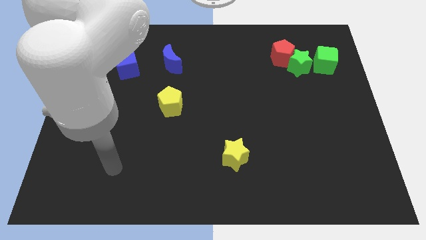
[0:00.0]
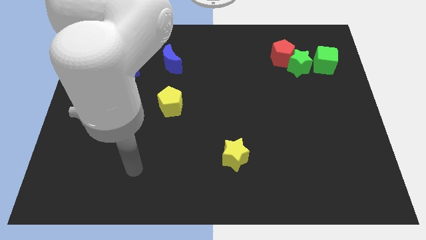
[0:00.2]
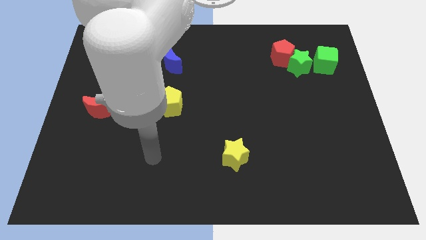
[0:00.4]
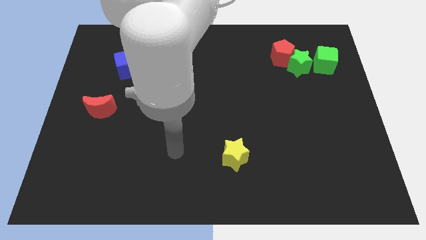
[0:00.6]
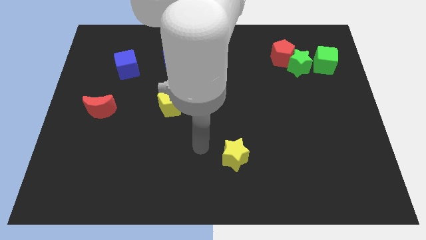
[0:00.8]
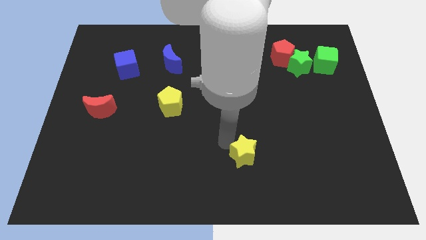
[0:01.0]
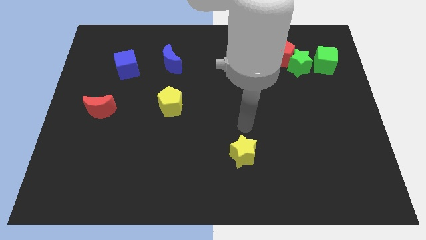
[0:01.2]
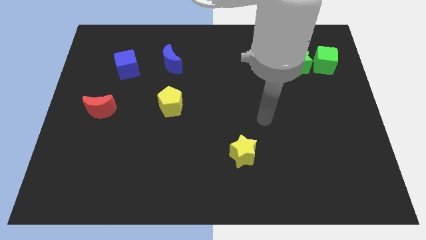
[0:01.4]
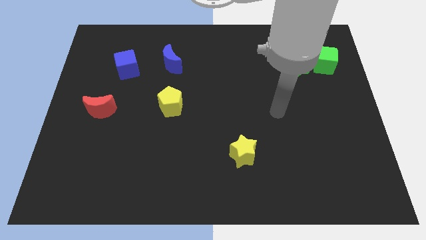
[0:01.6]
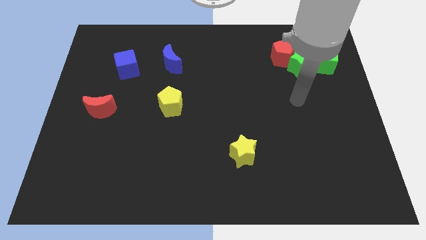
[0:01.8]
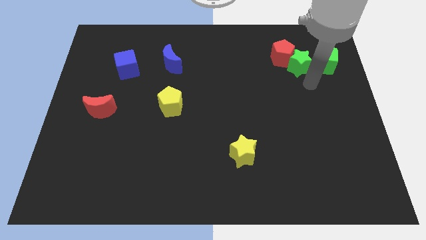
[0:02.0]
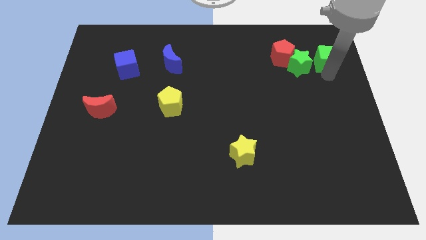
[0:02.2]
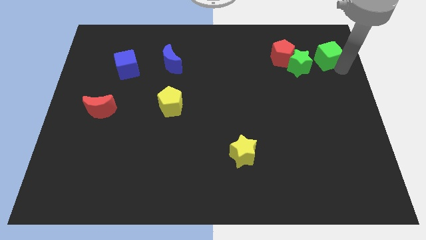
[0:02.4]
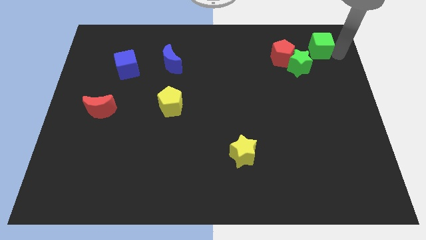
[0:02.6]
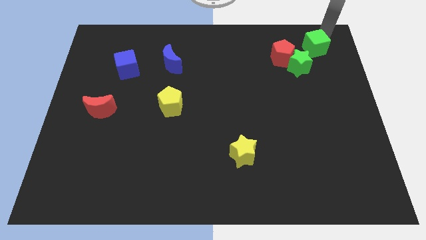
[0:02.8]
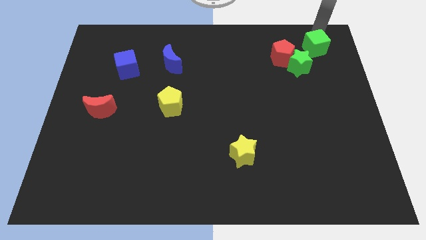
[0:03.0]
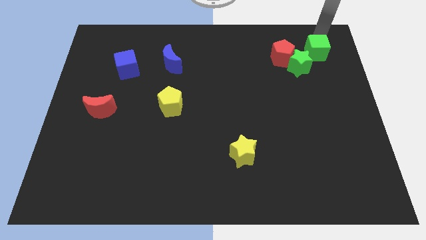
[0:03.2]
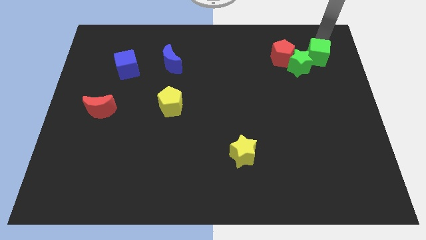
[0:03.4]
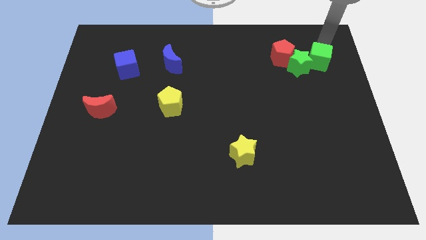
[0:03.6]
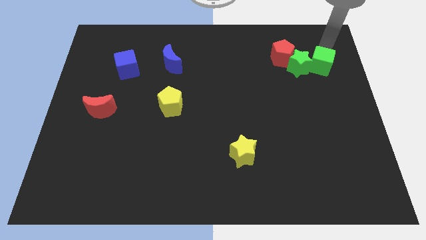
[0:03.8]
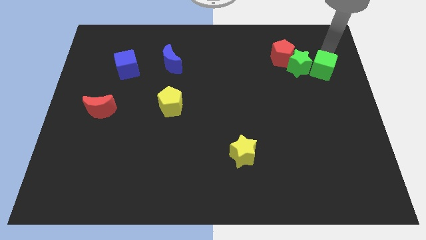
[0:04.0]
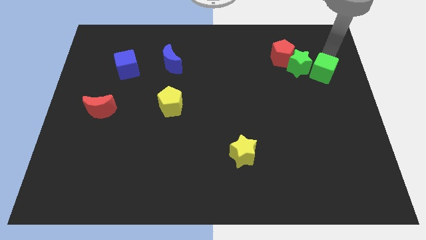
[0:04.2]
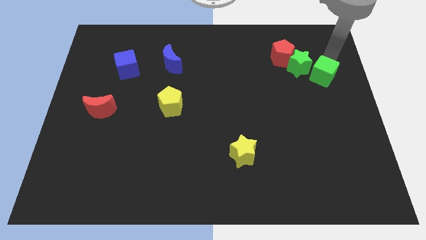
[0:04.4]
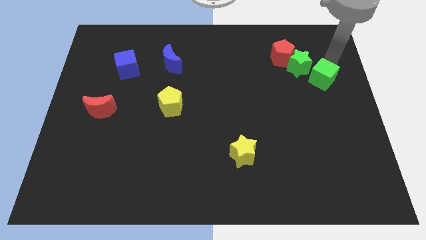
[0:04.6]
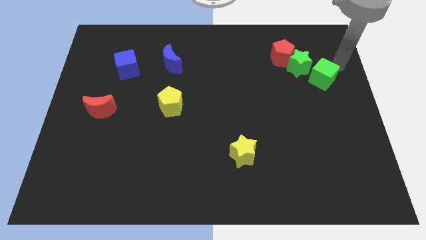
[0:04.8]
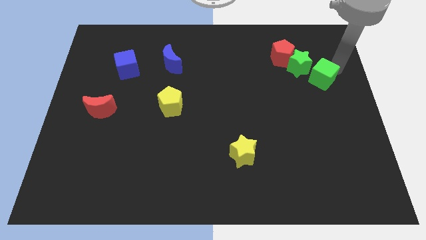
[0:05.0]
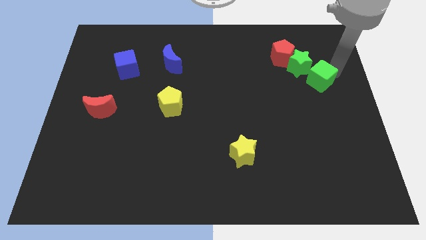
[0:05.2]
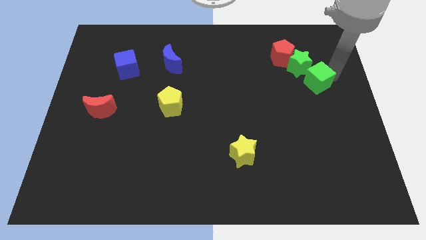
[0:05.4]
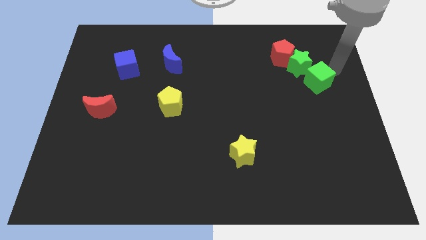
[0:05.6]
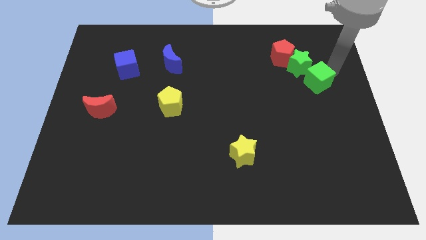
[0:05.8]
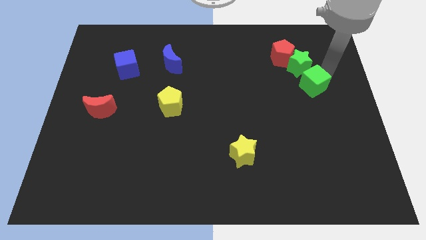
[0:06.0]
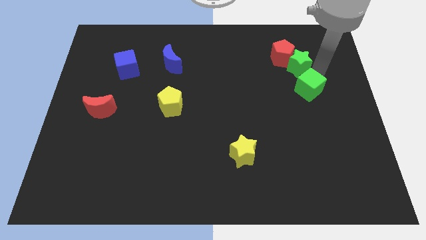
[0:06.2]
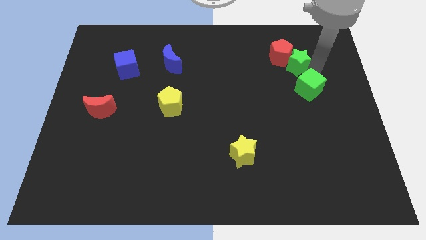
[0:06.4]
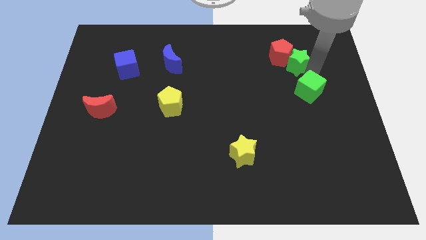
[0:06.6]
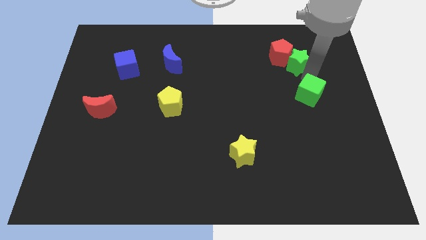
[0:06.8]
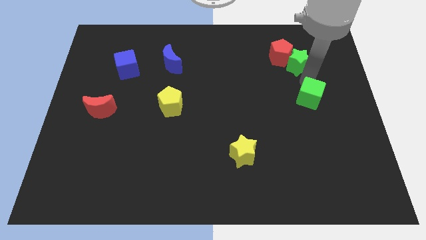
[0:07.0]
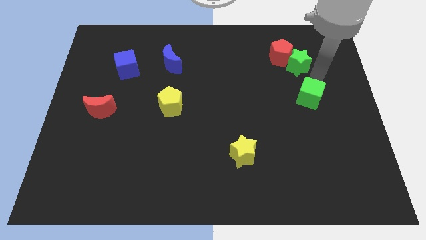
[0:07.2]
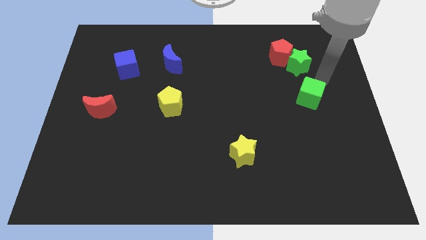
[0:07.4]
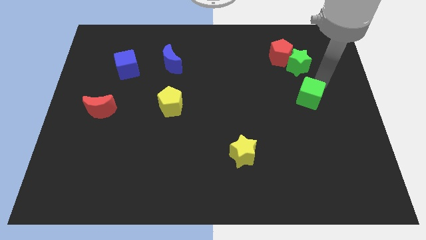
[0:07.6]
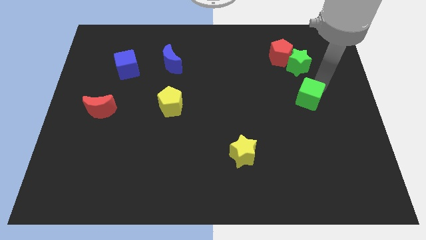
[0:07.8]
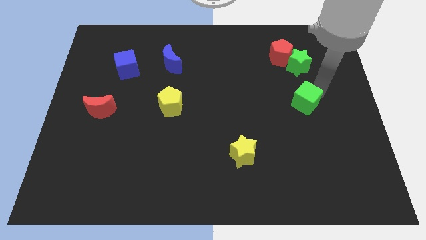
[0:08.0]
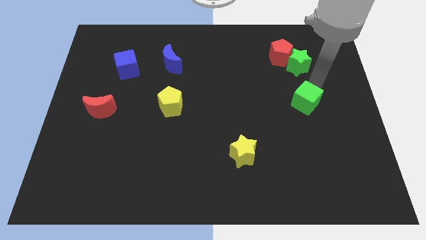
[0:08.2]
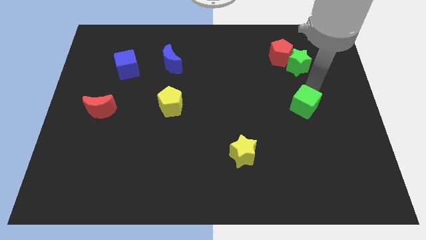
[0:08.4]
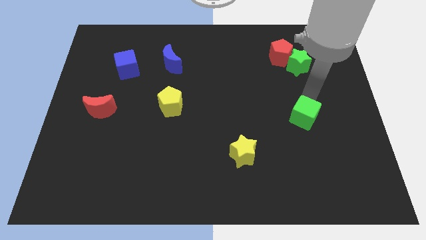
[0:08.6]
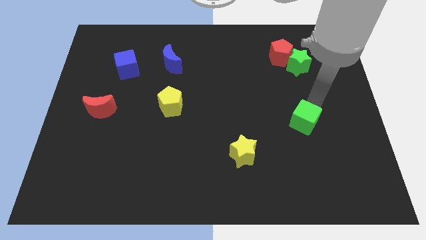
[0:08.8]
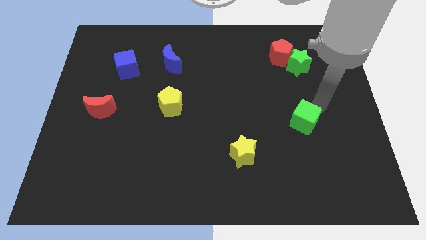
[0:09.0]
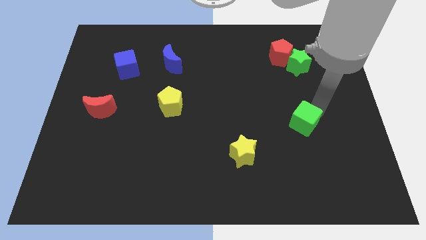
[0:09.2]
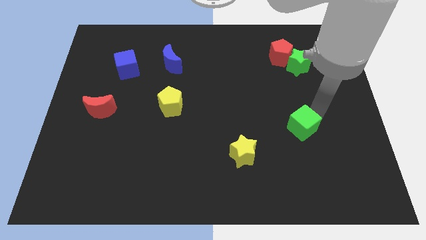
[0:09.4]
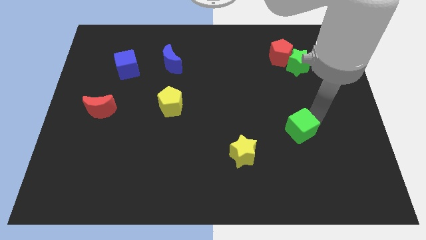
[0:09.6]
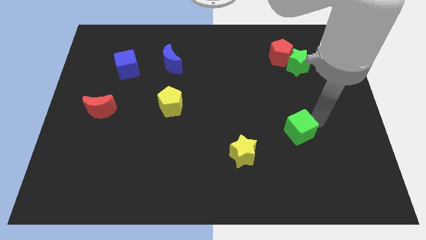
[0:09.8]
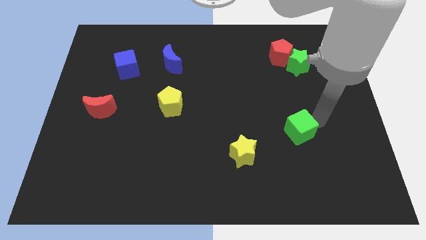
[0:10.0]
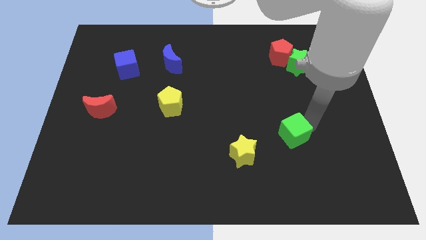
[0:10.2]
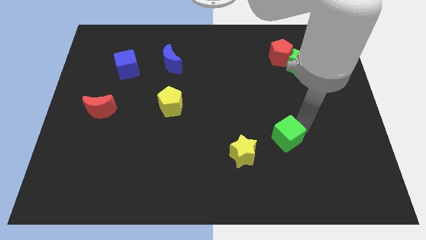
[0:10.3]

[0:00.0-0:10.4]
slide the green cube to the right of the yellow star

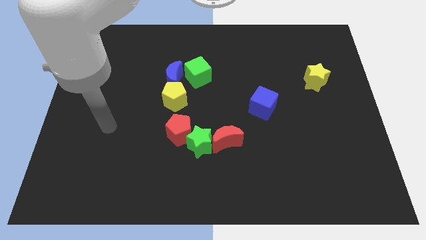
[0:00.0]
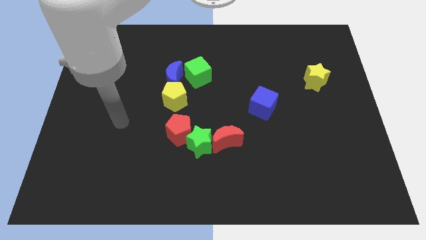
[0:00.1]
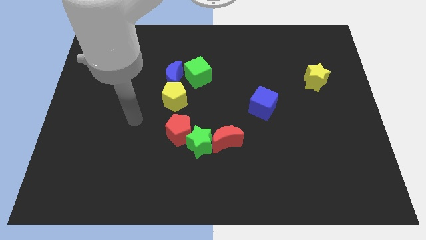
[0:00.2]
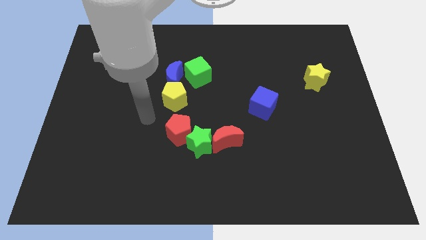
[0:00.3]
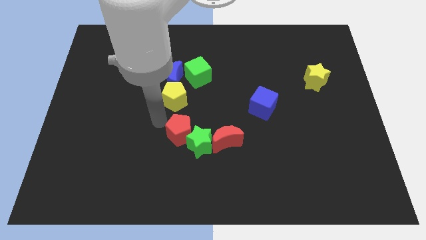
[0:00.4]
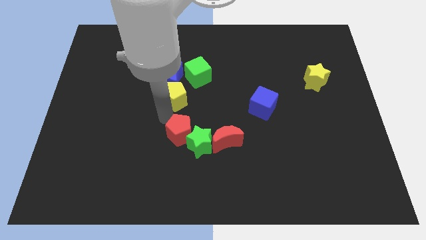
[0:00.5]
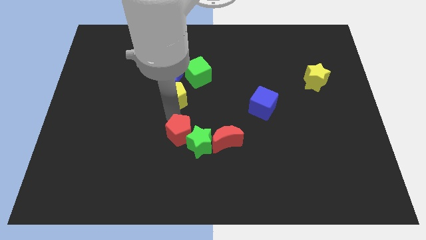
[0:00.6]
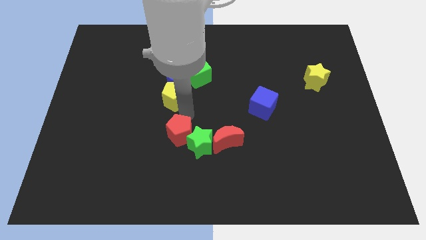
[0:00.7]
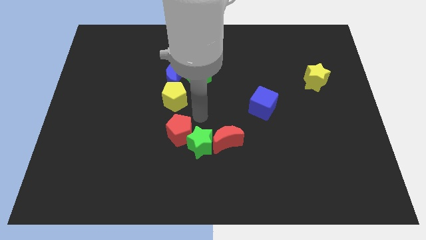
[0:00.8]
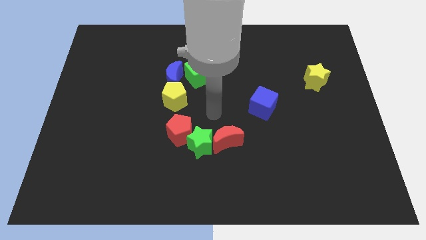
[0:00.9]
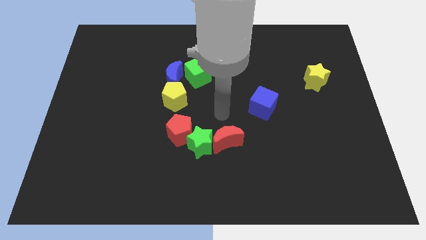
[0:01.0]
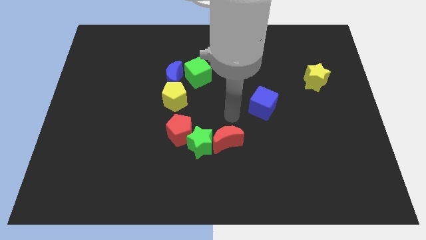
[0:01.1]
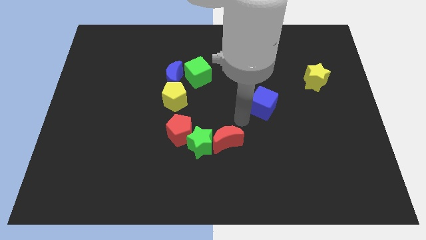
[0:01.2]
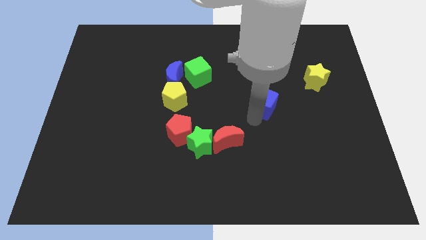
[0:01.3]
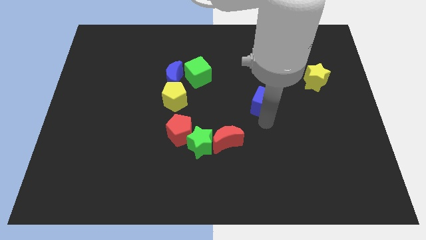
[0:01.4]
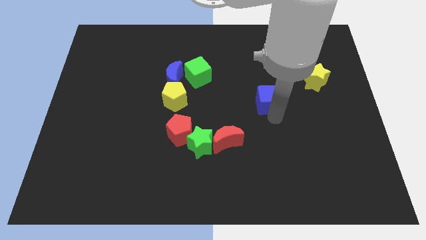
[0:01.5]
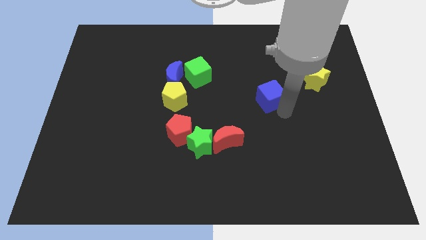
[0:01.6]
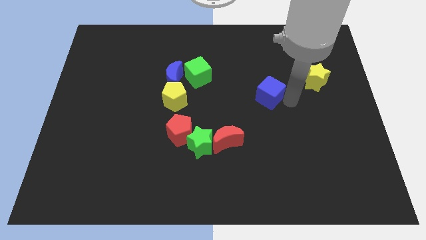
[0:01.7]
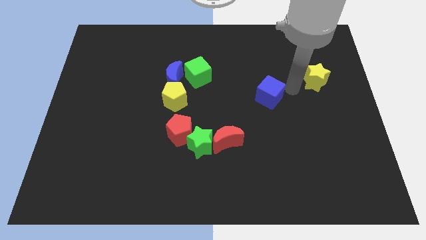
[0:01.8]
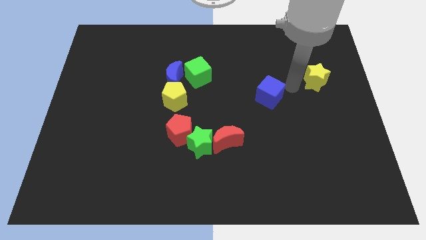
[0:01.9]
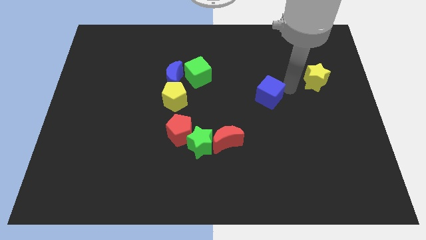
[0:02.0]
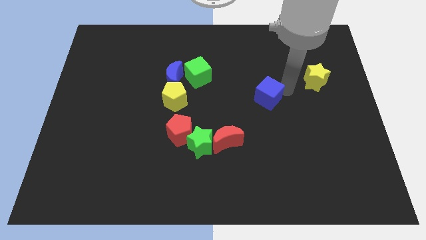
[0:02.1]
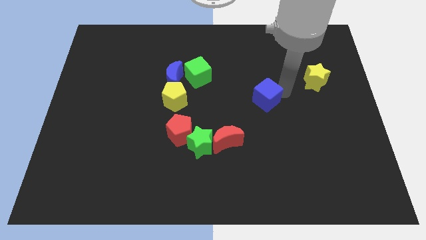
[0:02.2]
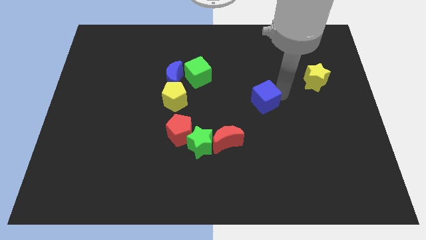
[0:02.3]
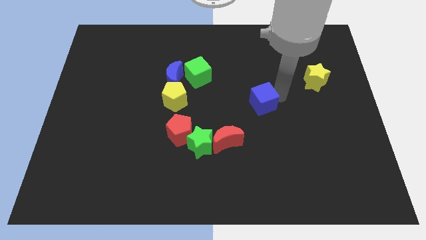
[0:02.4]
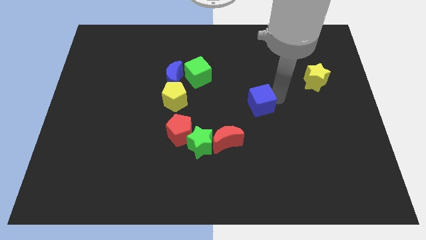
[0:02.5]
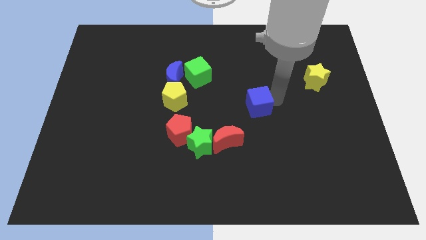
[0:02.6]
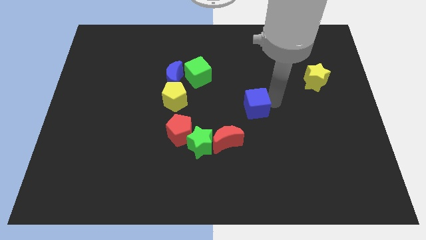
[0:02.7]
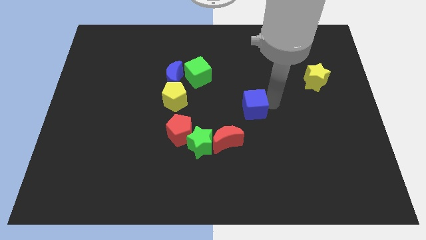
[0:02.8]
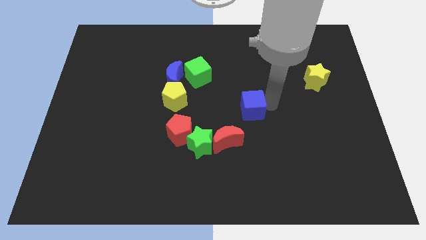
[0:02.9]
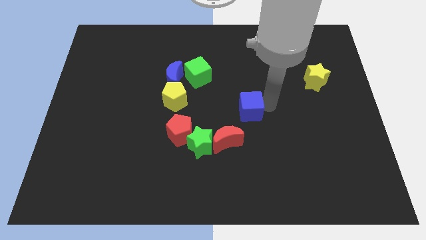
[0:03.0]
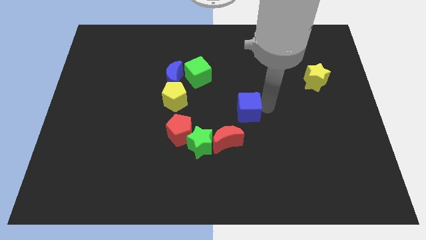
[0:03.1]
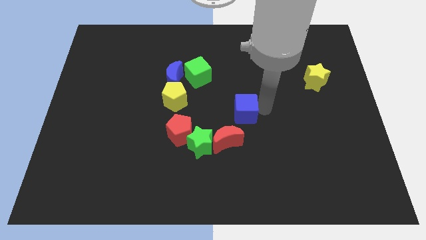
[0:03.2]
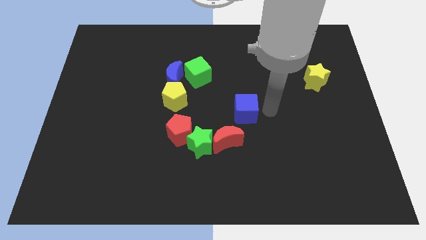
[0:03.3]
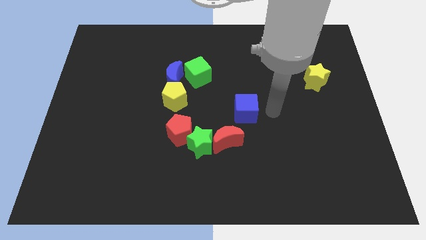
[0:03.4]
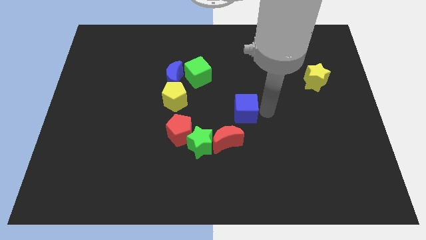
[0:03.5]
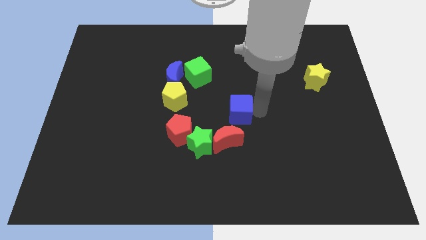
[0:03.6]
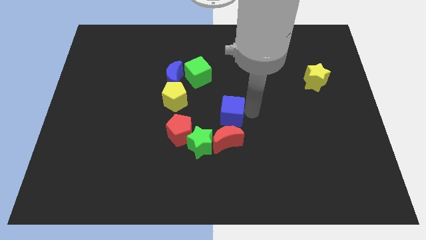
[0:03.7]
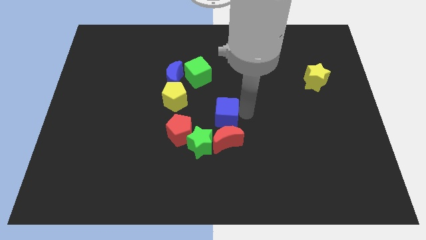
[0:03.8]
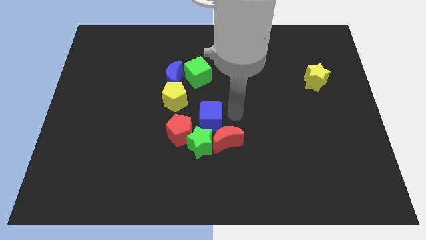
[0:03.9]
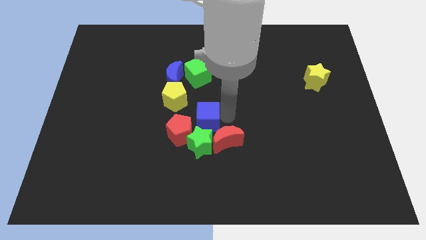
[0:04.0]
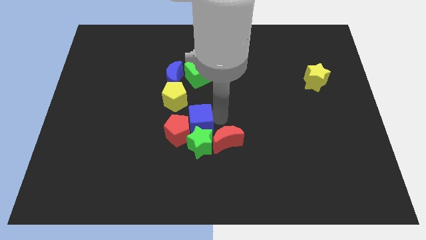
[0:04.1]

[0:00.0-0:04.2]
put the blue cube to the left of the red moon
